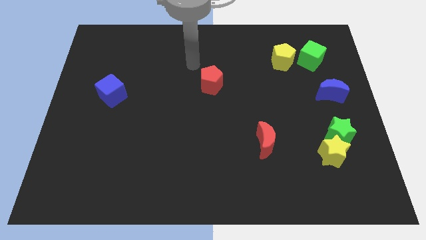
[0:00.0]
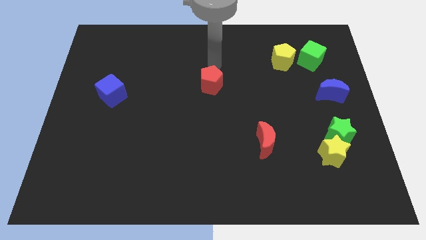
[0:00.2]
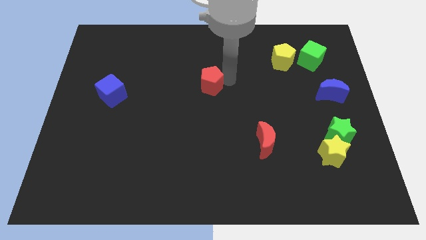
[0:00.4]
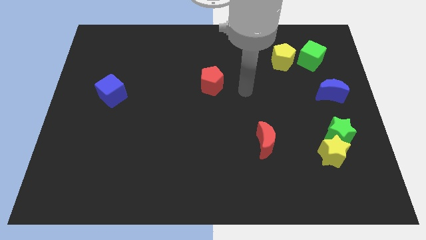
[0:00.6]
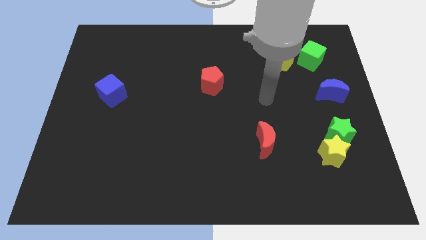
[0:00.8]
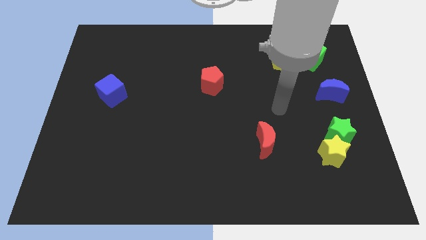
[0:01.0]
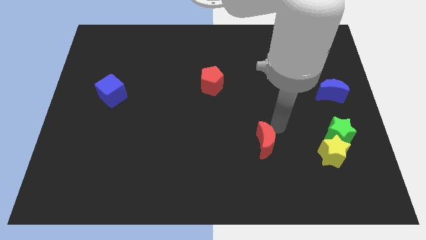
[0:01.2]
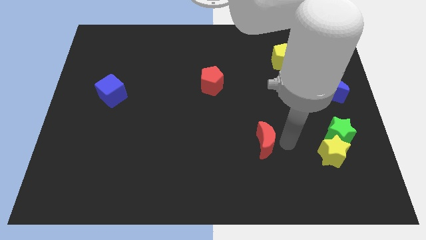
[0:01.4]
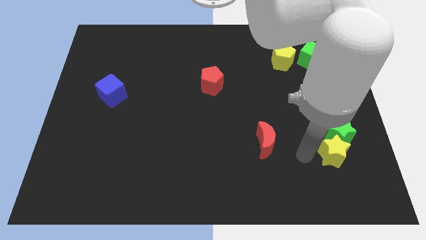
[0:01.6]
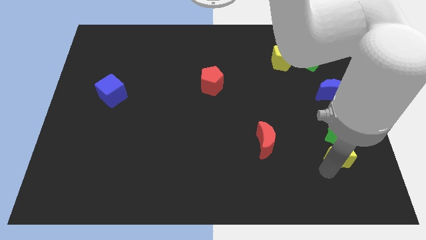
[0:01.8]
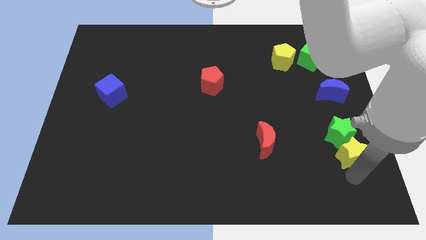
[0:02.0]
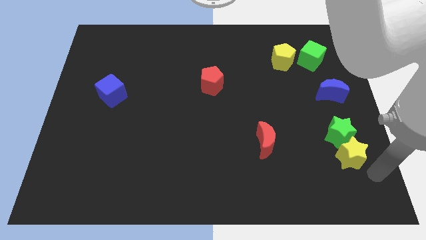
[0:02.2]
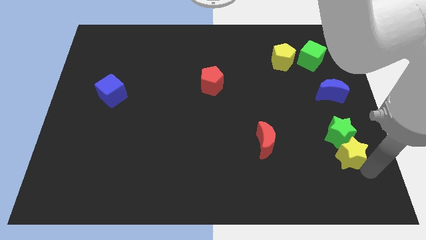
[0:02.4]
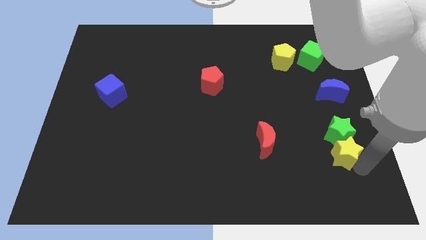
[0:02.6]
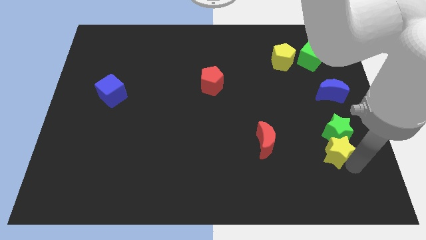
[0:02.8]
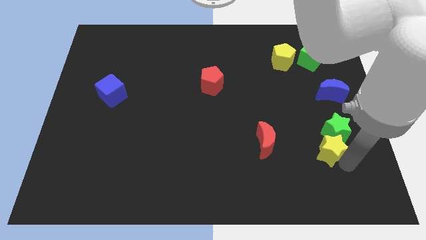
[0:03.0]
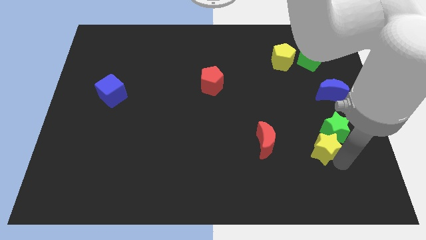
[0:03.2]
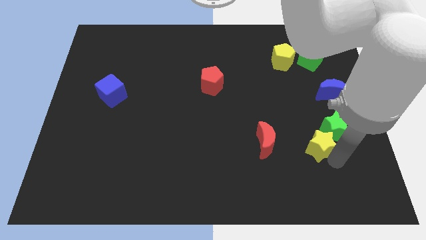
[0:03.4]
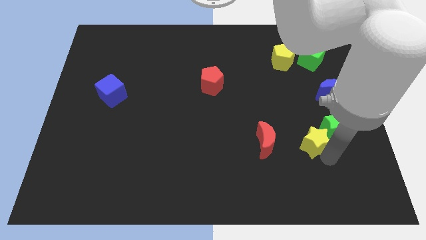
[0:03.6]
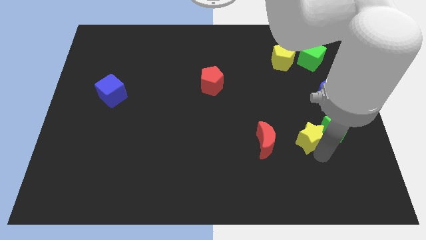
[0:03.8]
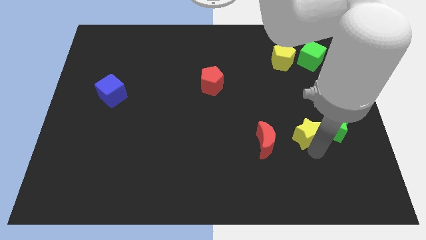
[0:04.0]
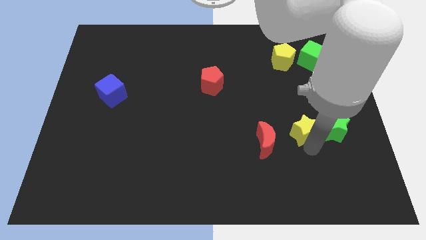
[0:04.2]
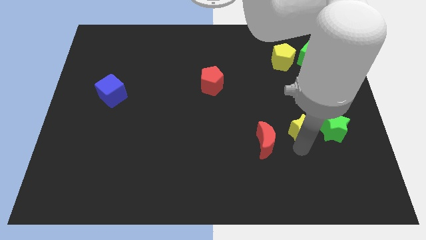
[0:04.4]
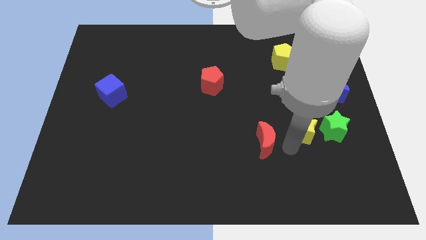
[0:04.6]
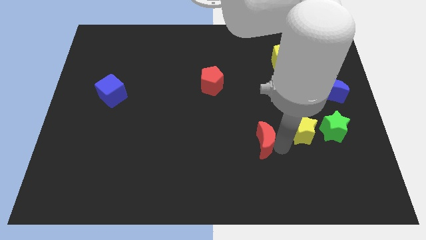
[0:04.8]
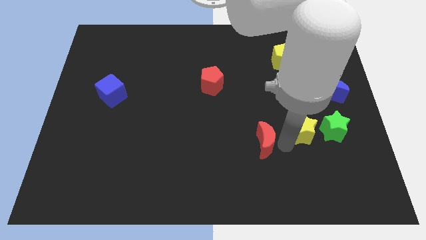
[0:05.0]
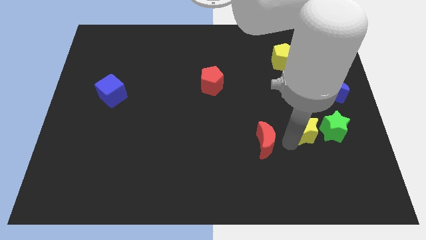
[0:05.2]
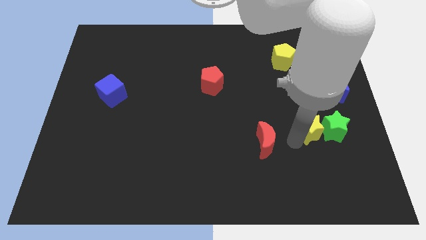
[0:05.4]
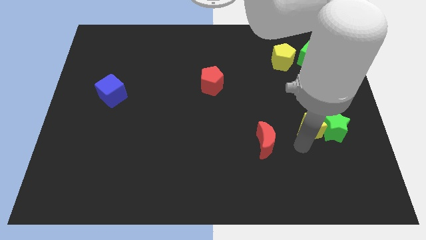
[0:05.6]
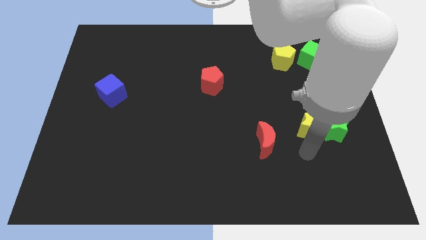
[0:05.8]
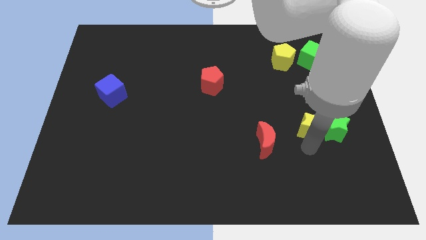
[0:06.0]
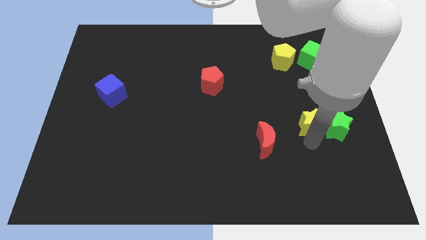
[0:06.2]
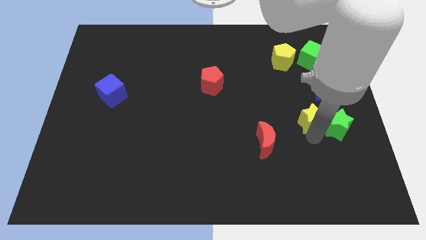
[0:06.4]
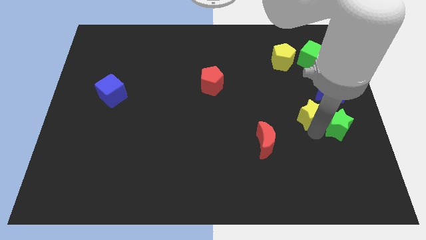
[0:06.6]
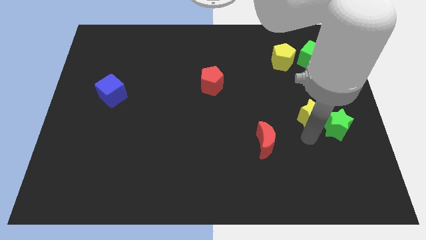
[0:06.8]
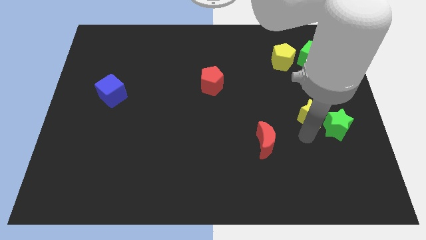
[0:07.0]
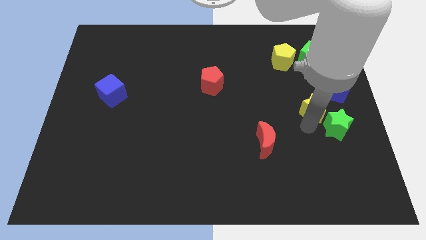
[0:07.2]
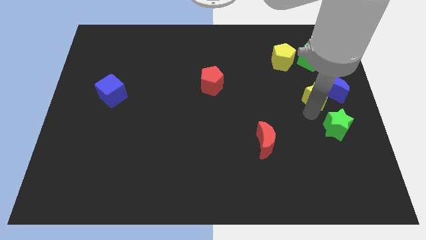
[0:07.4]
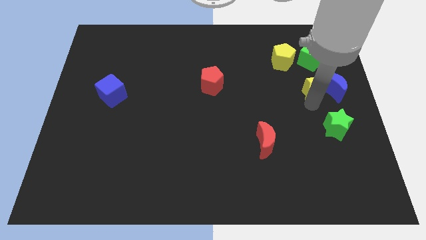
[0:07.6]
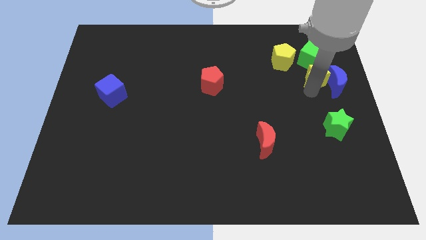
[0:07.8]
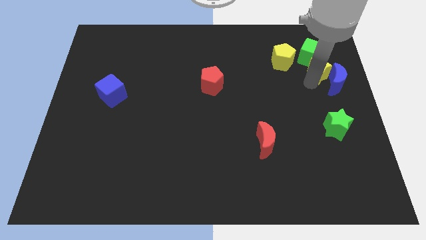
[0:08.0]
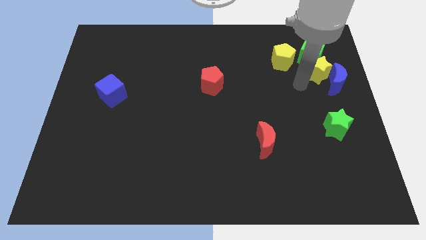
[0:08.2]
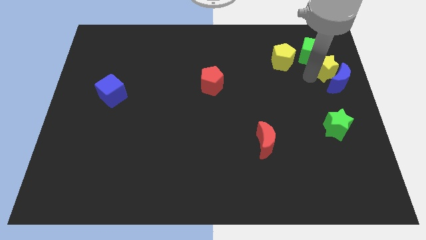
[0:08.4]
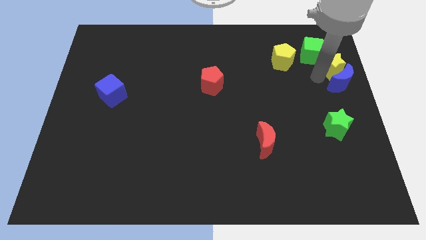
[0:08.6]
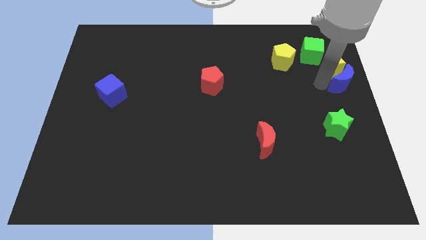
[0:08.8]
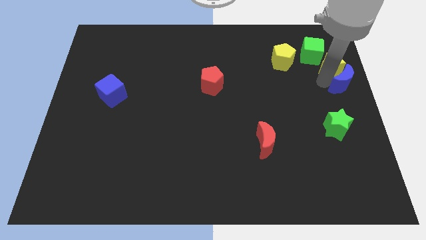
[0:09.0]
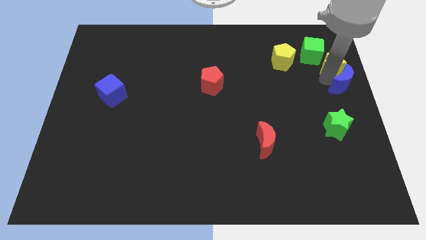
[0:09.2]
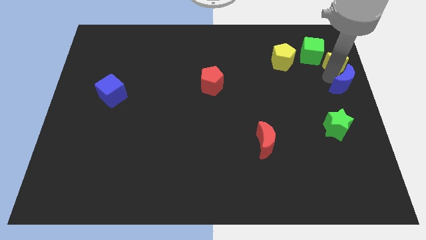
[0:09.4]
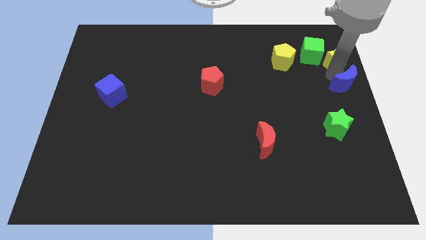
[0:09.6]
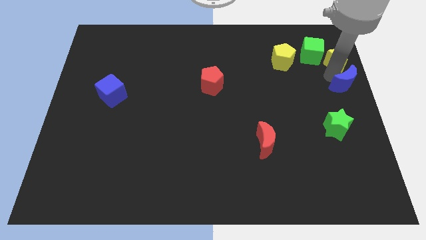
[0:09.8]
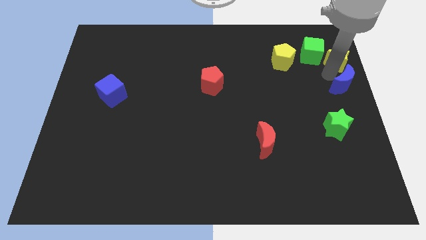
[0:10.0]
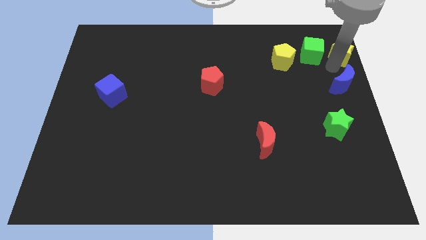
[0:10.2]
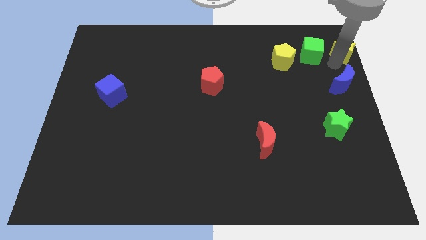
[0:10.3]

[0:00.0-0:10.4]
move the yellow star to the top right

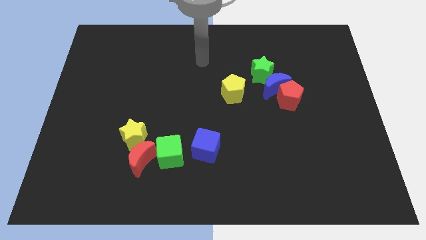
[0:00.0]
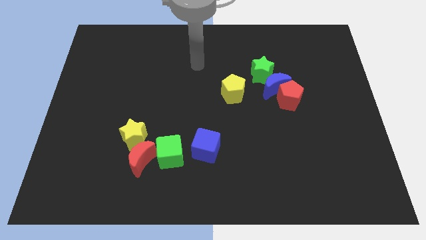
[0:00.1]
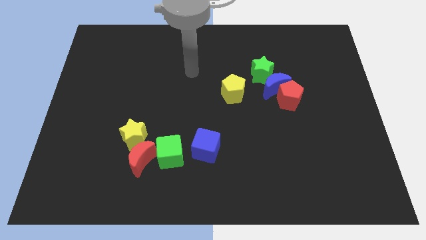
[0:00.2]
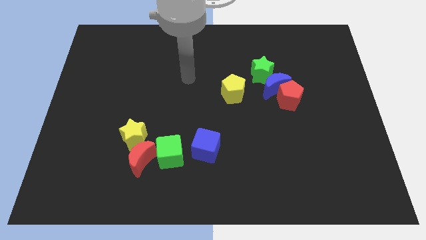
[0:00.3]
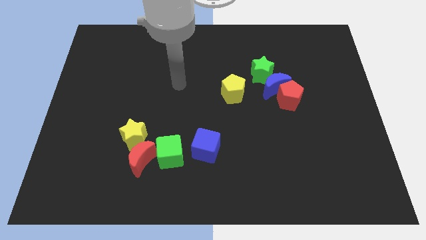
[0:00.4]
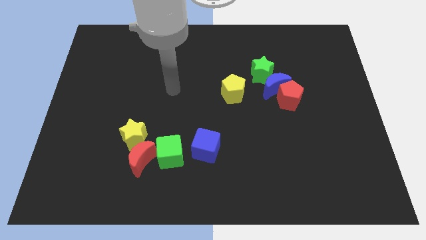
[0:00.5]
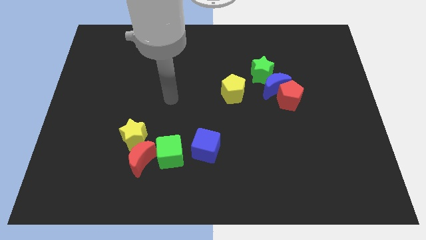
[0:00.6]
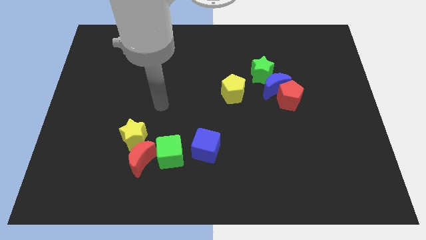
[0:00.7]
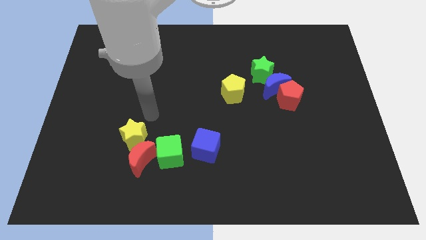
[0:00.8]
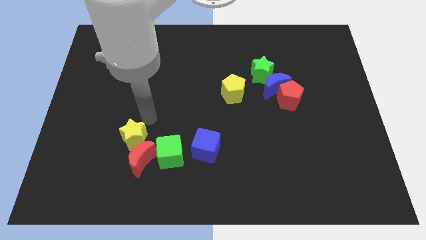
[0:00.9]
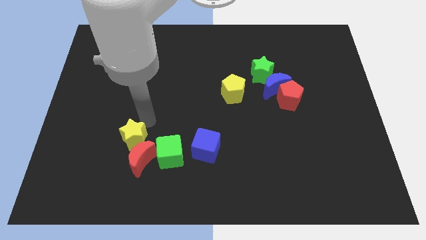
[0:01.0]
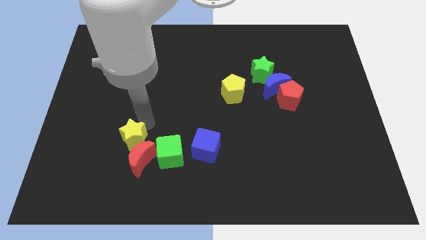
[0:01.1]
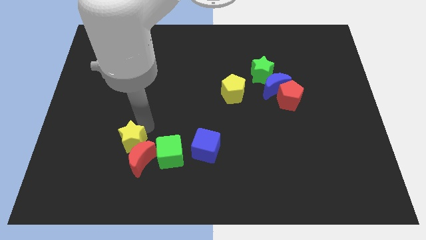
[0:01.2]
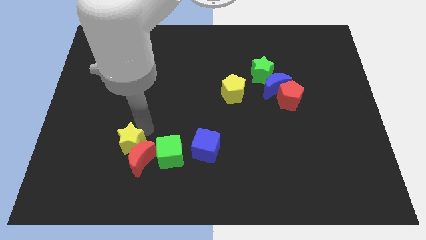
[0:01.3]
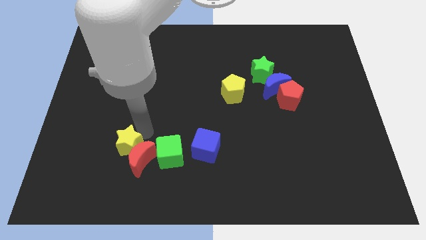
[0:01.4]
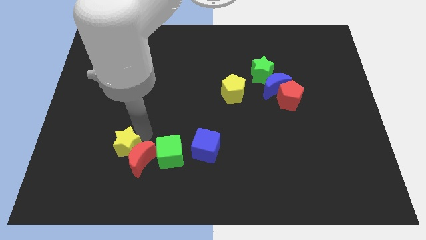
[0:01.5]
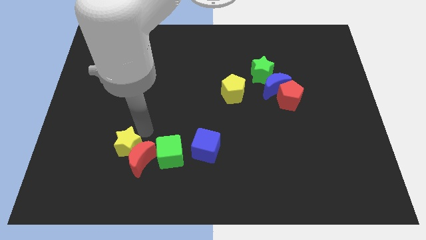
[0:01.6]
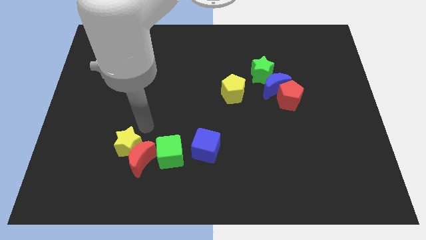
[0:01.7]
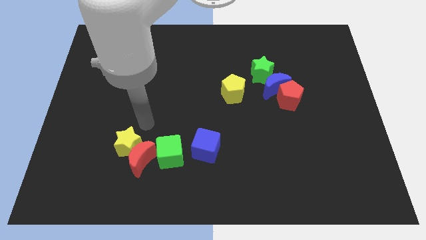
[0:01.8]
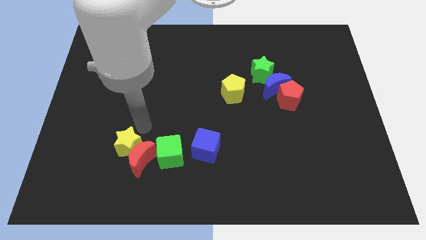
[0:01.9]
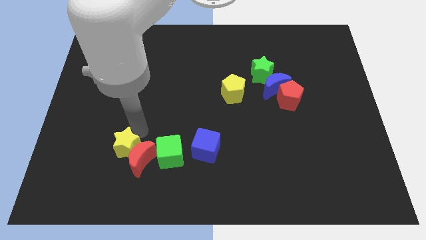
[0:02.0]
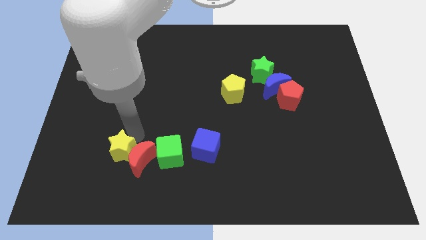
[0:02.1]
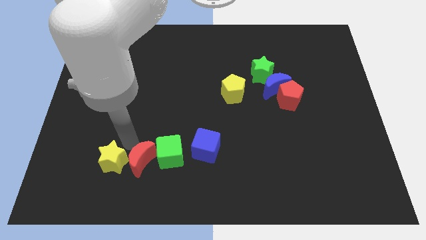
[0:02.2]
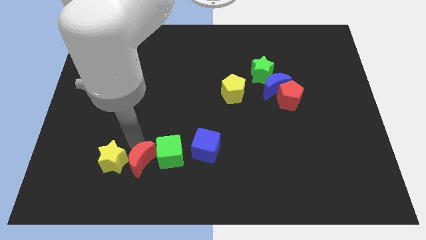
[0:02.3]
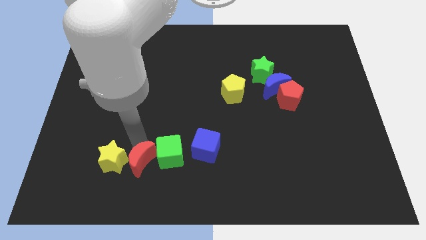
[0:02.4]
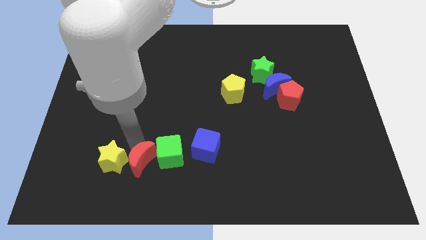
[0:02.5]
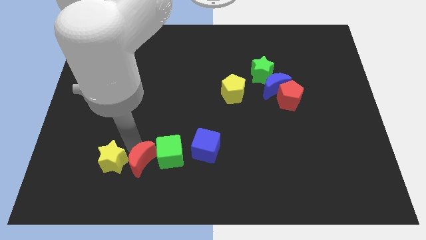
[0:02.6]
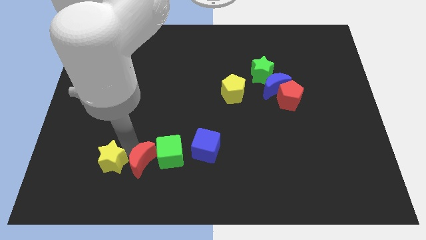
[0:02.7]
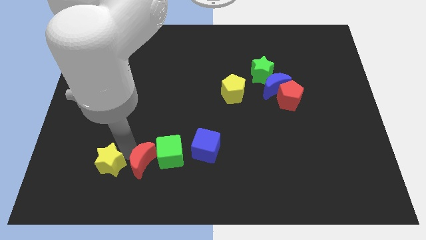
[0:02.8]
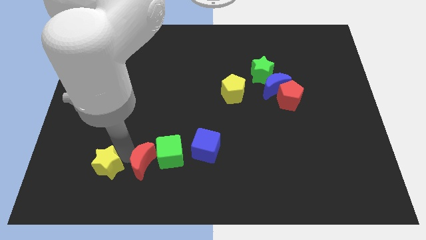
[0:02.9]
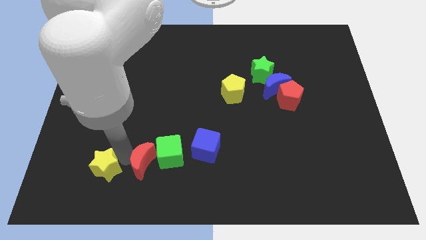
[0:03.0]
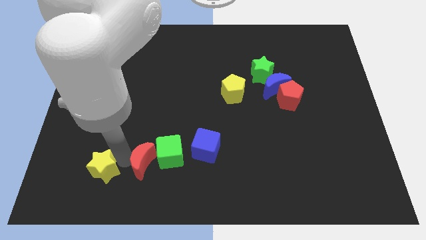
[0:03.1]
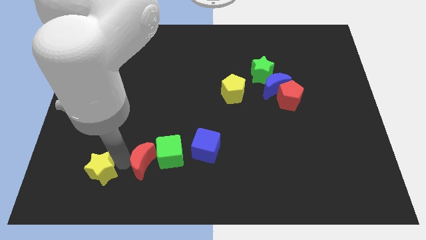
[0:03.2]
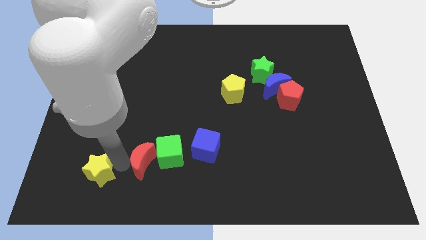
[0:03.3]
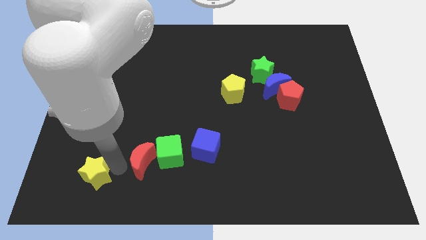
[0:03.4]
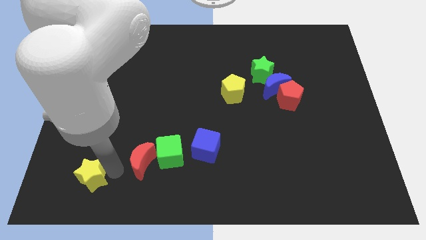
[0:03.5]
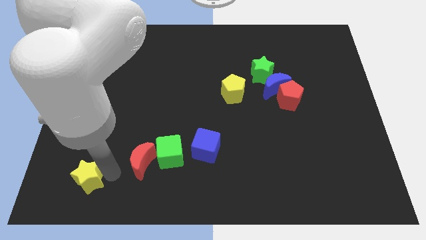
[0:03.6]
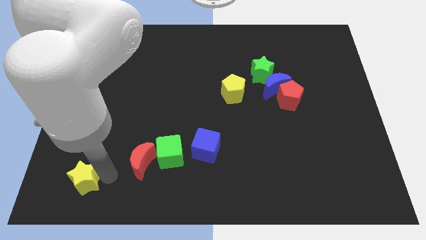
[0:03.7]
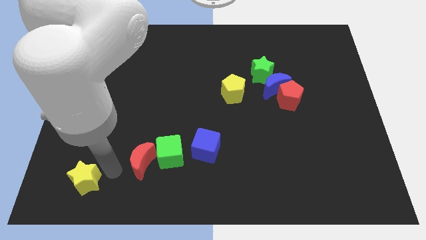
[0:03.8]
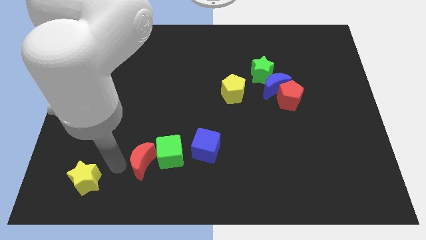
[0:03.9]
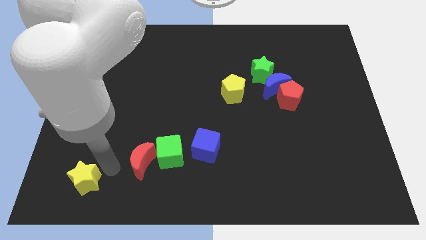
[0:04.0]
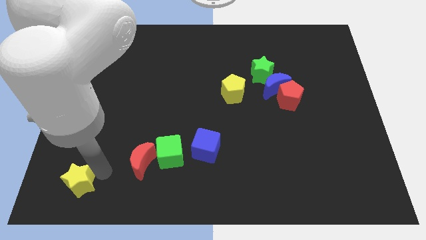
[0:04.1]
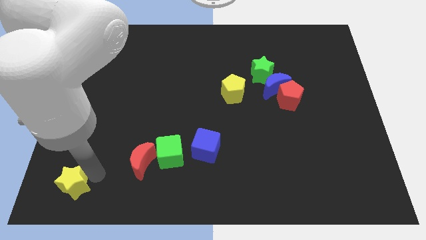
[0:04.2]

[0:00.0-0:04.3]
put the yellow star to the lower left corner
